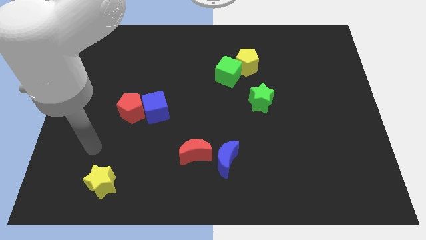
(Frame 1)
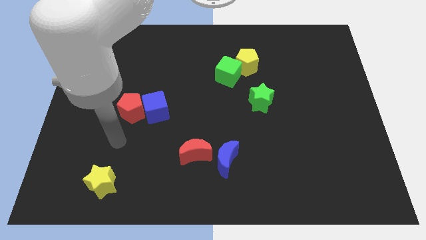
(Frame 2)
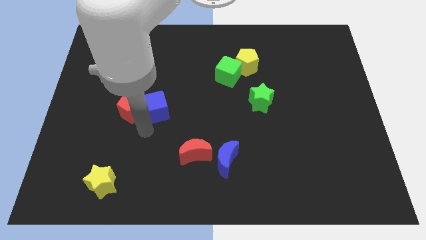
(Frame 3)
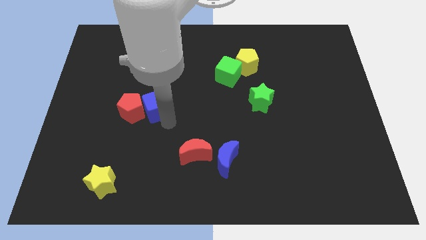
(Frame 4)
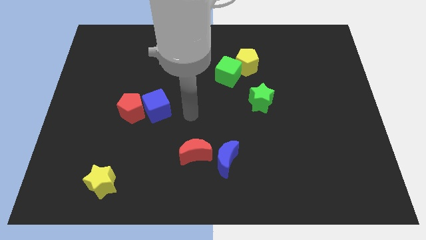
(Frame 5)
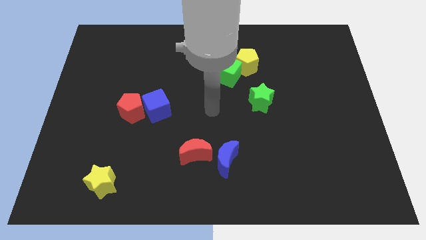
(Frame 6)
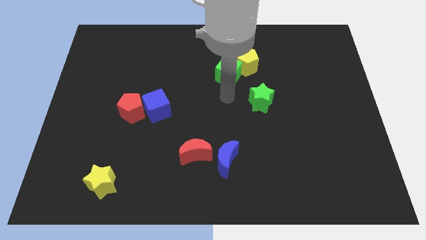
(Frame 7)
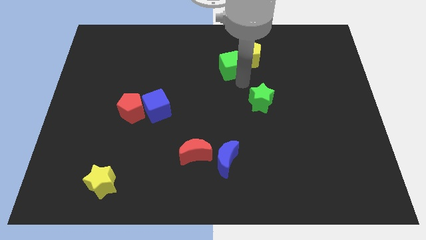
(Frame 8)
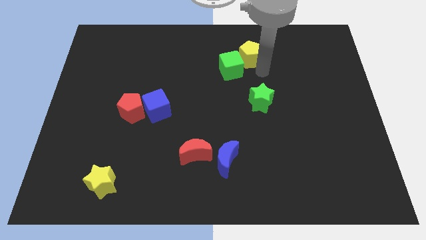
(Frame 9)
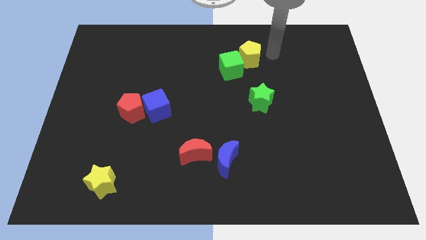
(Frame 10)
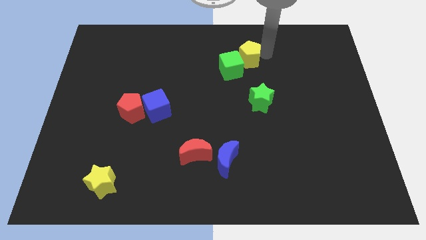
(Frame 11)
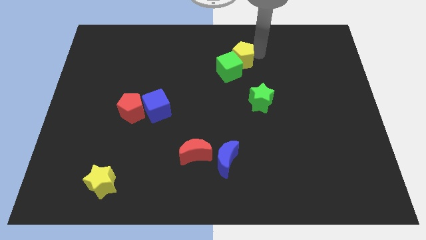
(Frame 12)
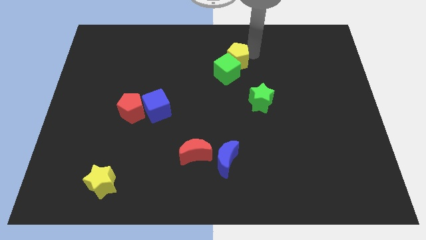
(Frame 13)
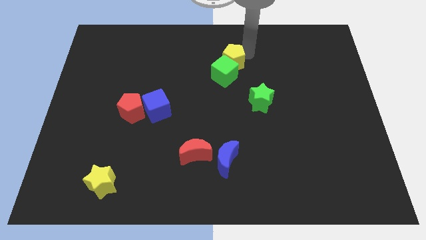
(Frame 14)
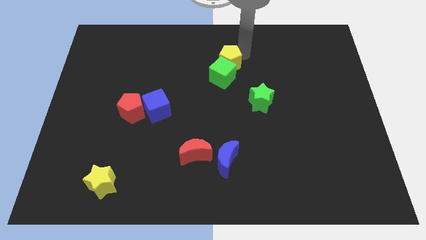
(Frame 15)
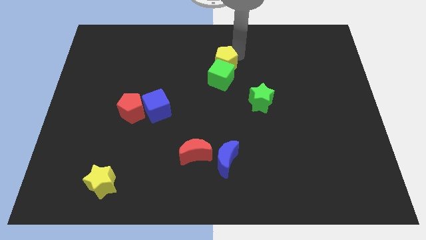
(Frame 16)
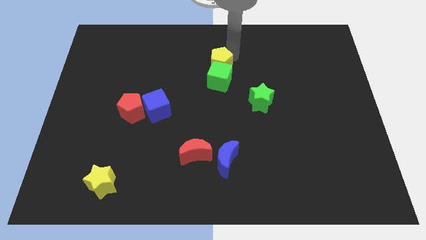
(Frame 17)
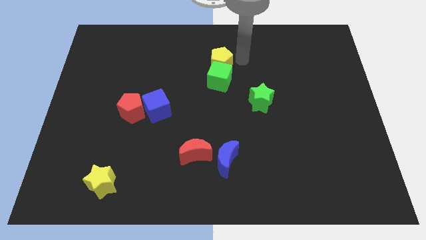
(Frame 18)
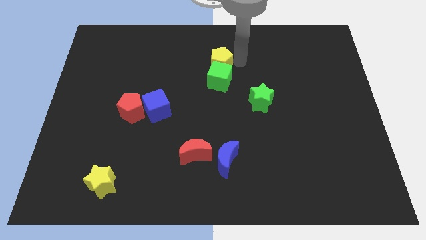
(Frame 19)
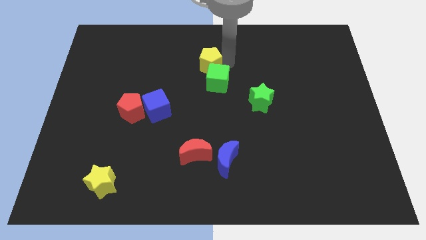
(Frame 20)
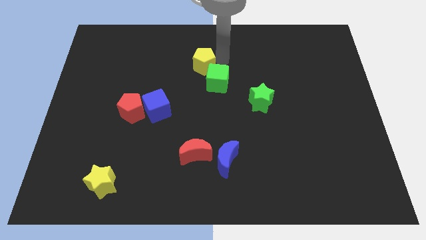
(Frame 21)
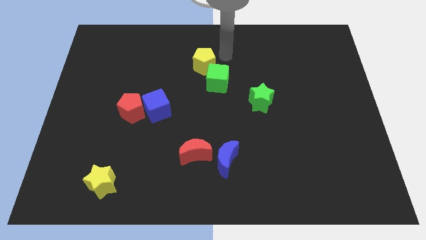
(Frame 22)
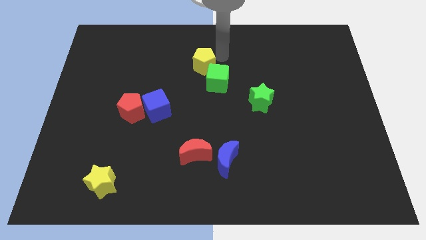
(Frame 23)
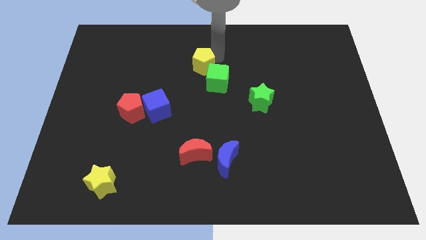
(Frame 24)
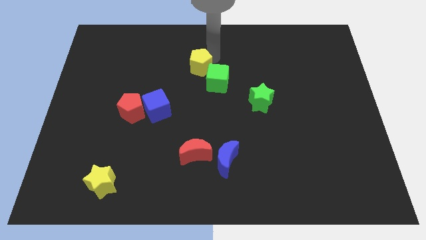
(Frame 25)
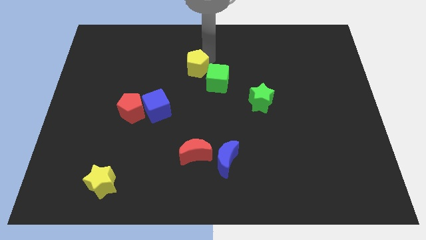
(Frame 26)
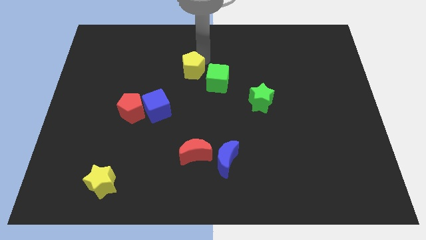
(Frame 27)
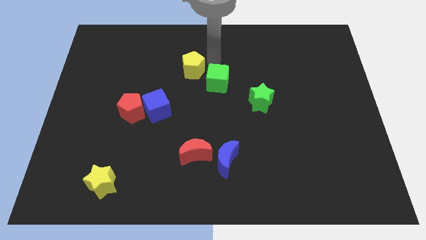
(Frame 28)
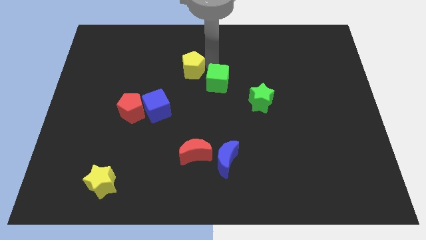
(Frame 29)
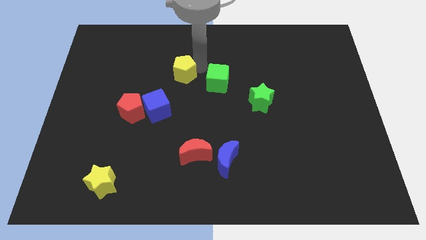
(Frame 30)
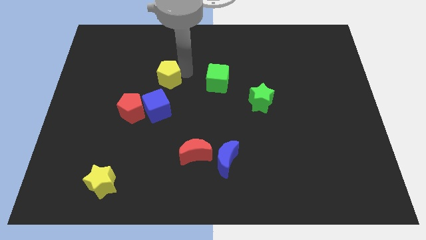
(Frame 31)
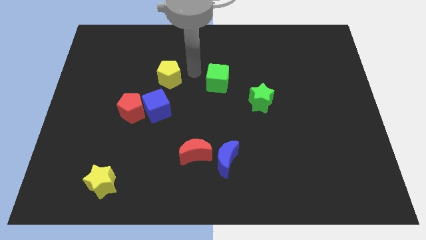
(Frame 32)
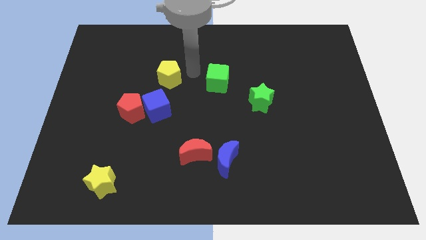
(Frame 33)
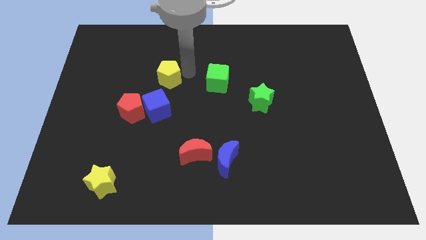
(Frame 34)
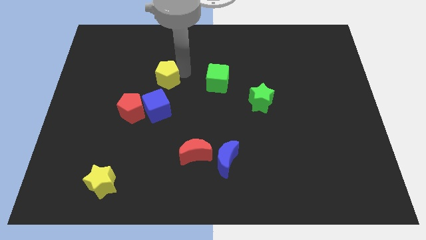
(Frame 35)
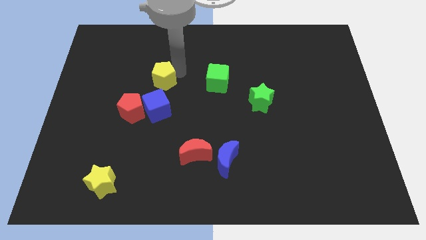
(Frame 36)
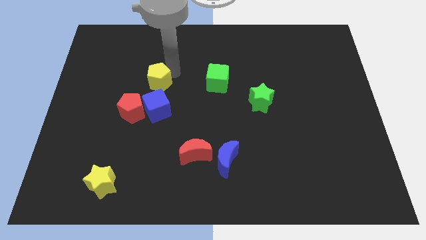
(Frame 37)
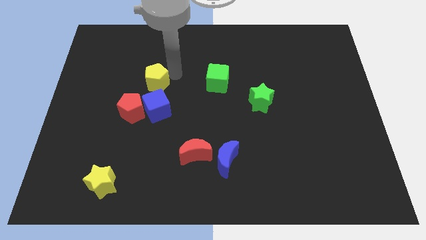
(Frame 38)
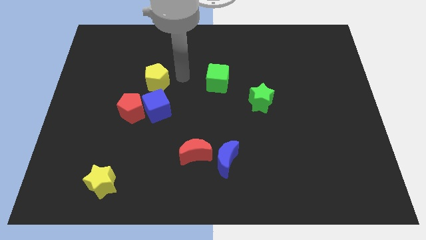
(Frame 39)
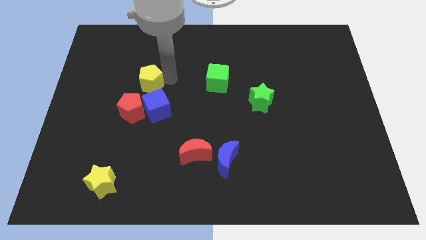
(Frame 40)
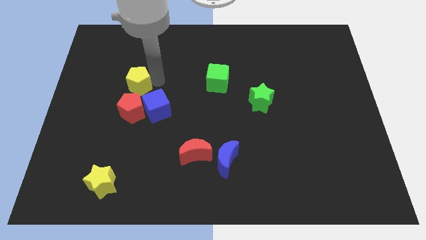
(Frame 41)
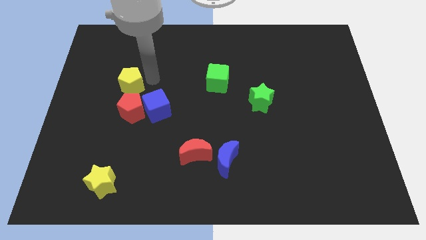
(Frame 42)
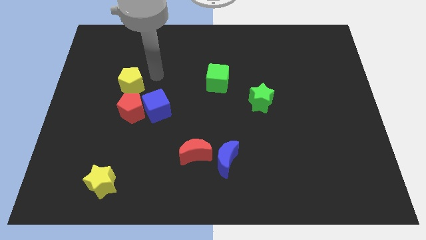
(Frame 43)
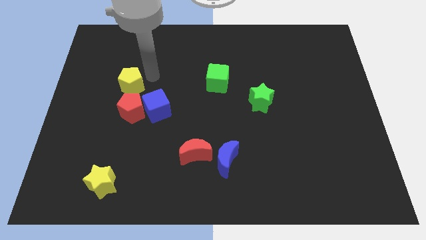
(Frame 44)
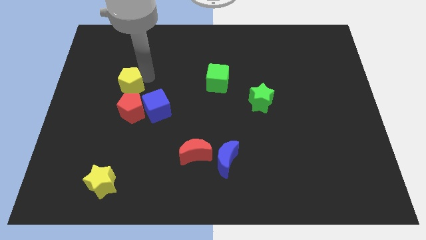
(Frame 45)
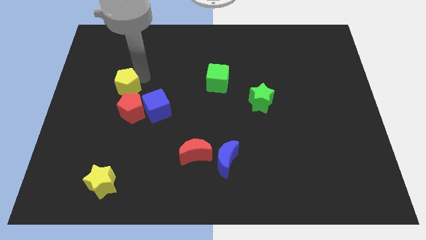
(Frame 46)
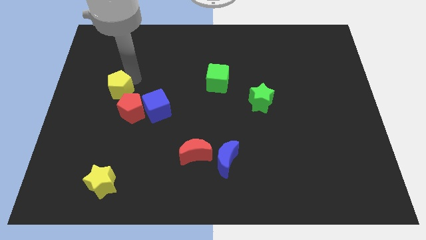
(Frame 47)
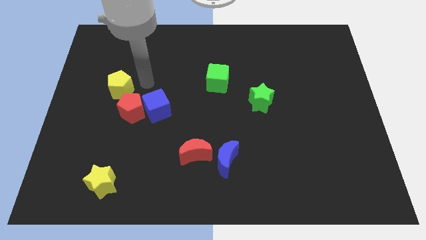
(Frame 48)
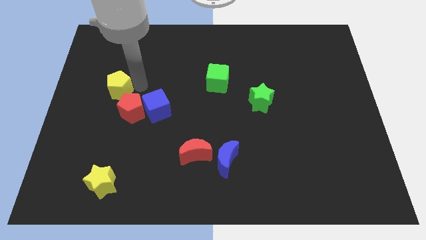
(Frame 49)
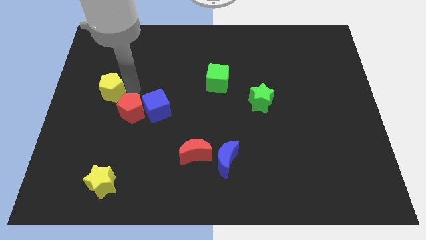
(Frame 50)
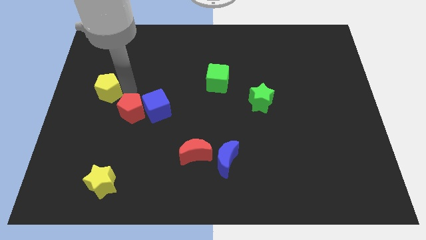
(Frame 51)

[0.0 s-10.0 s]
slide the yellow pentagon to the center left
